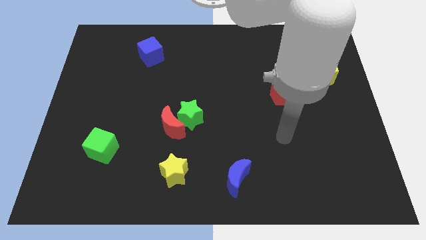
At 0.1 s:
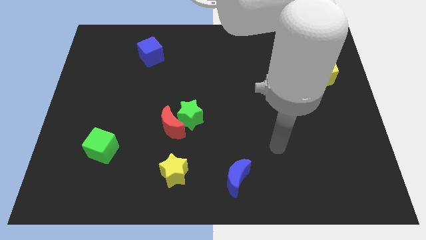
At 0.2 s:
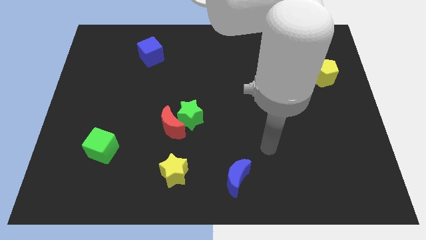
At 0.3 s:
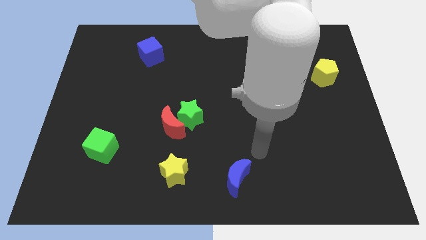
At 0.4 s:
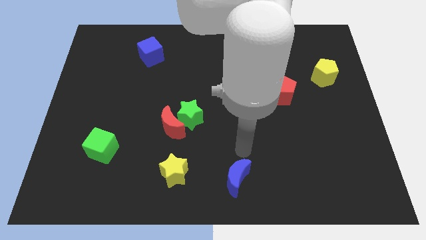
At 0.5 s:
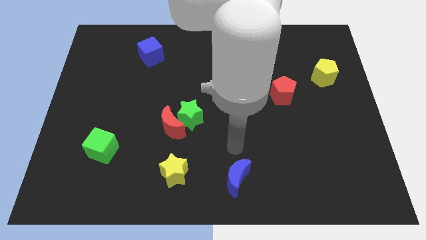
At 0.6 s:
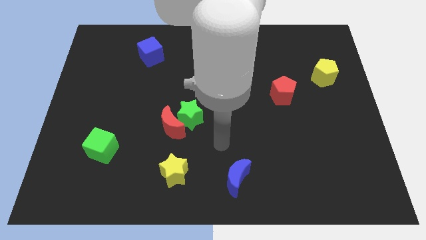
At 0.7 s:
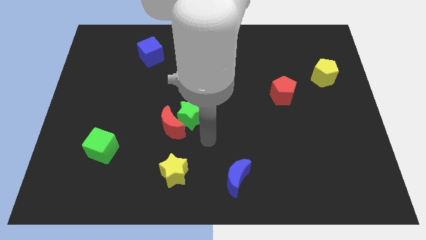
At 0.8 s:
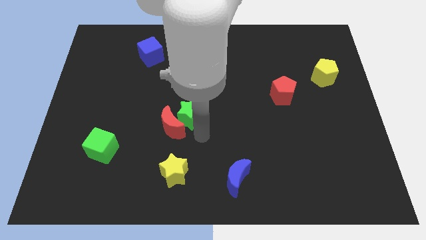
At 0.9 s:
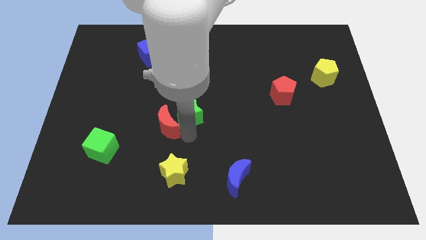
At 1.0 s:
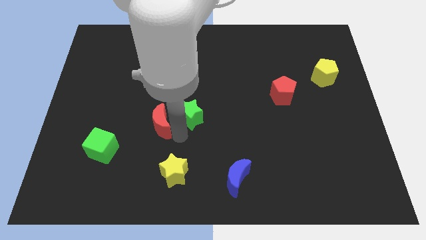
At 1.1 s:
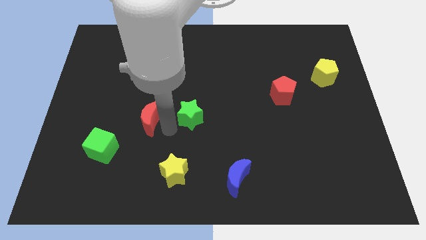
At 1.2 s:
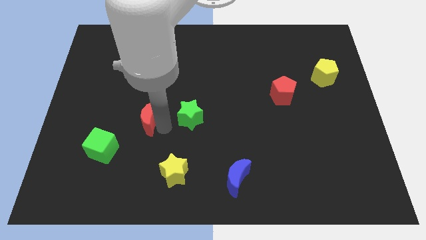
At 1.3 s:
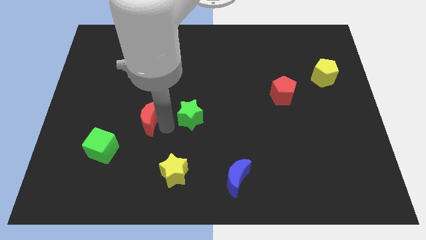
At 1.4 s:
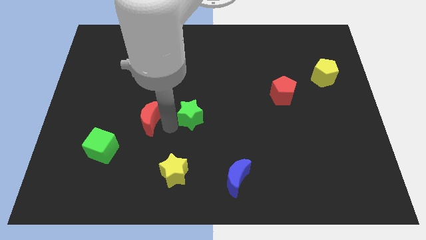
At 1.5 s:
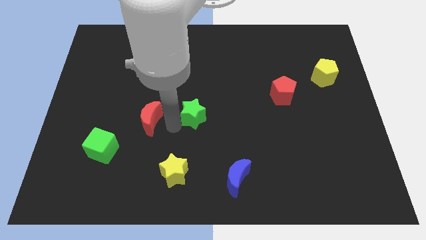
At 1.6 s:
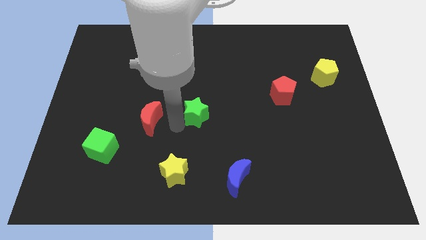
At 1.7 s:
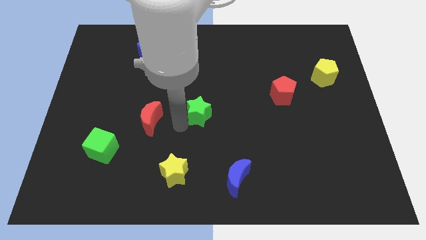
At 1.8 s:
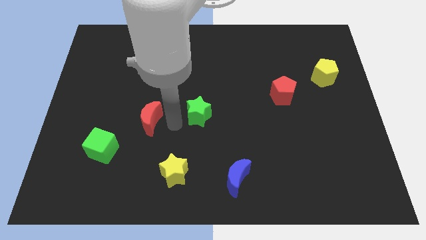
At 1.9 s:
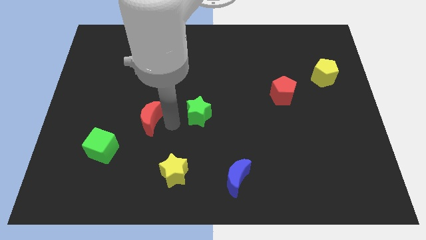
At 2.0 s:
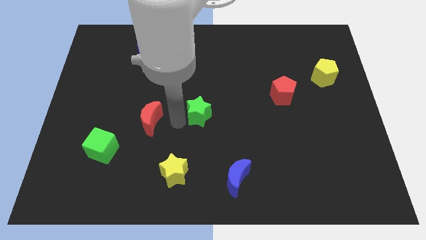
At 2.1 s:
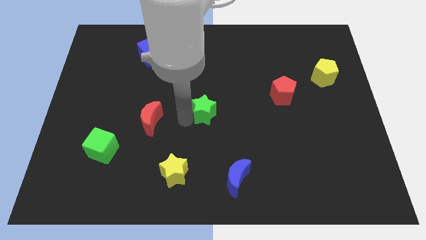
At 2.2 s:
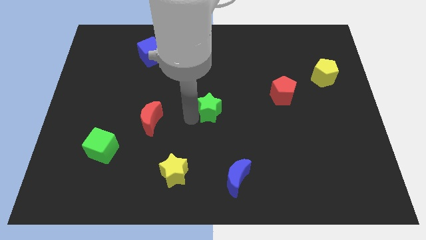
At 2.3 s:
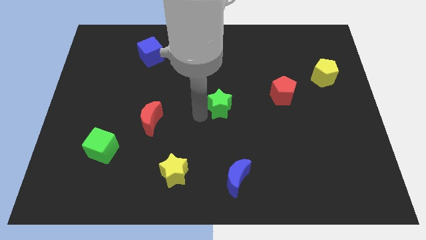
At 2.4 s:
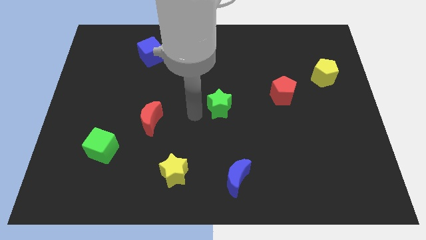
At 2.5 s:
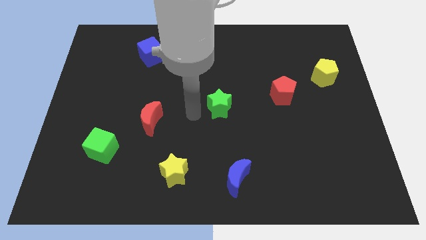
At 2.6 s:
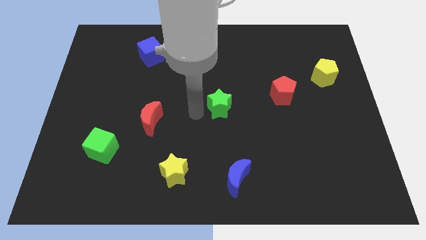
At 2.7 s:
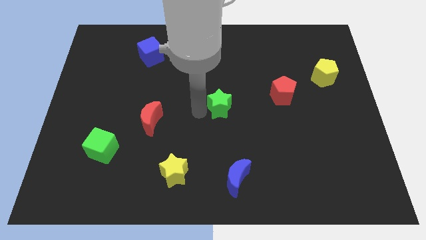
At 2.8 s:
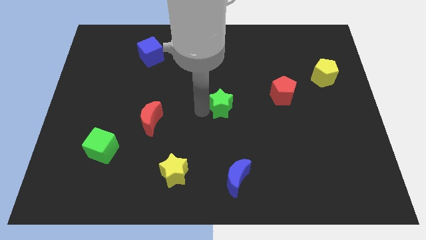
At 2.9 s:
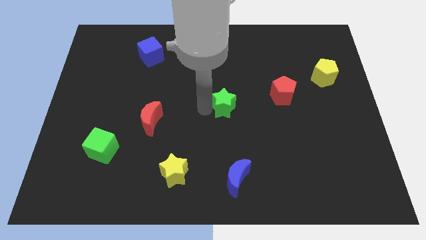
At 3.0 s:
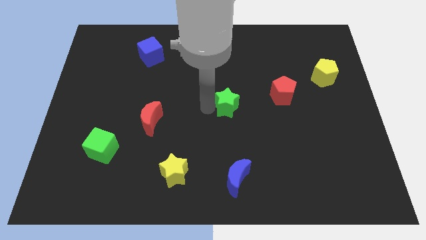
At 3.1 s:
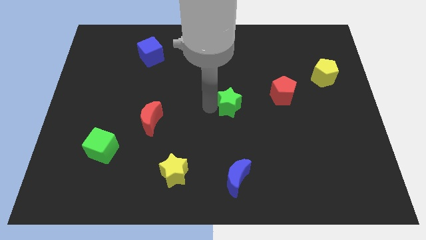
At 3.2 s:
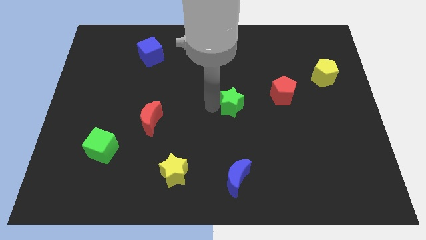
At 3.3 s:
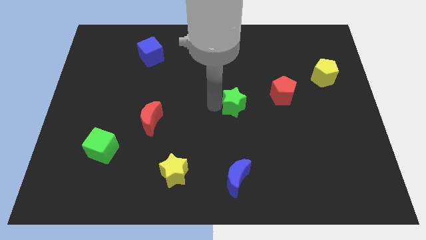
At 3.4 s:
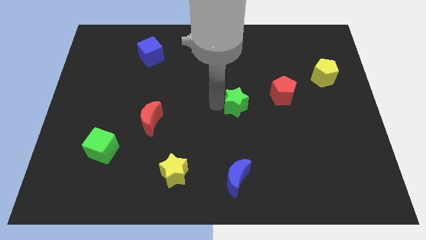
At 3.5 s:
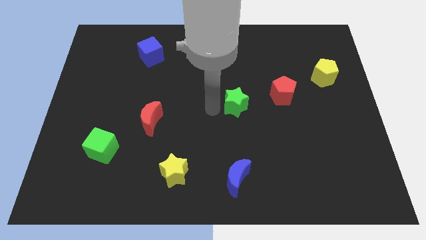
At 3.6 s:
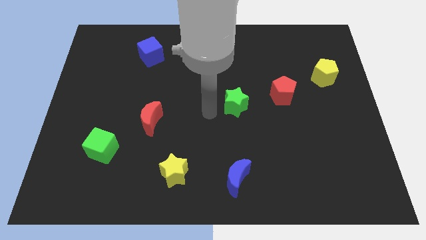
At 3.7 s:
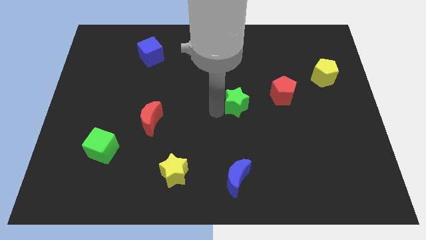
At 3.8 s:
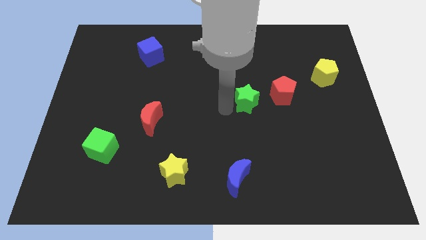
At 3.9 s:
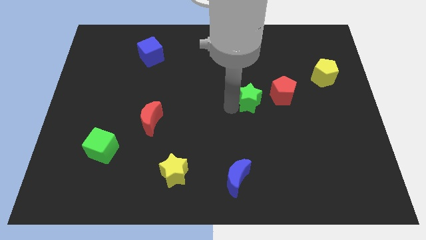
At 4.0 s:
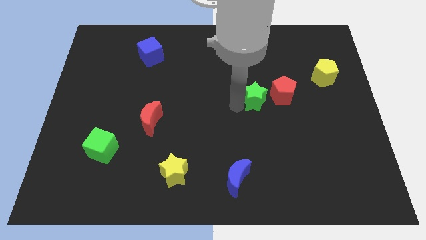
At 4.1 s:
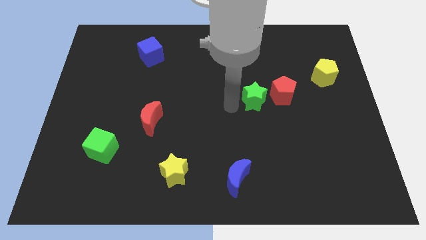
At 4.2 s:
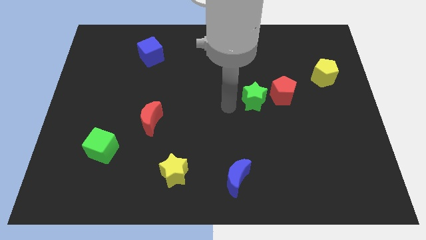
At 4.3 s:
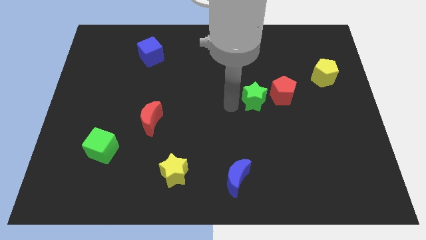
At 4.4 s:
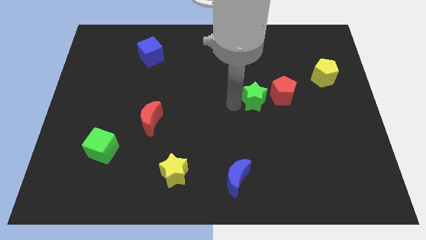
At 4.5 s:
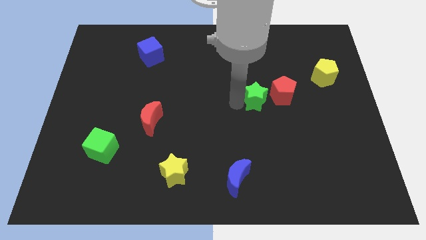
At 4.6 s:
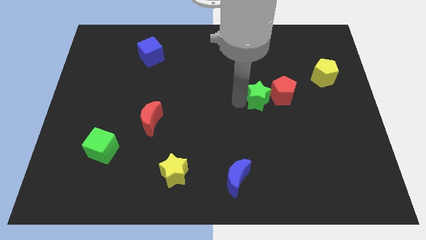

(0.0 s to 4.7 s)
slide the green star next to the red pentagon

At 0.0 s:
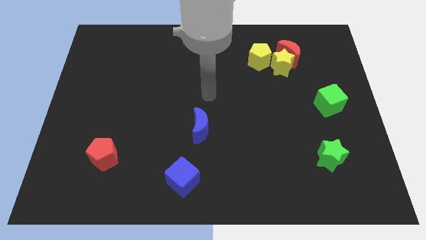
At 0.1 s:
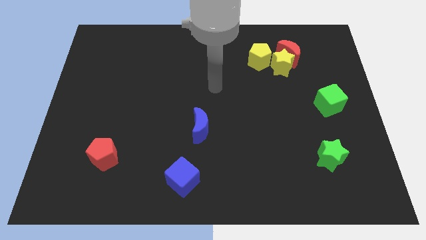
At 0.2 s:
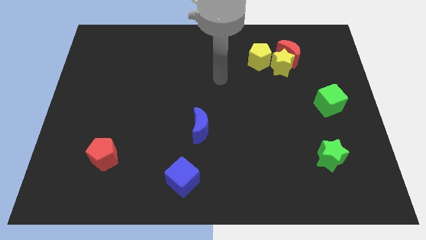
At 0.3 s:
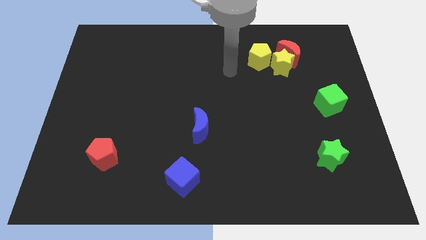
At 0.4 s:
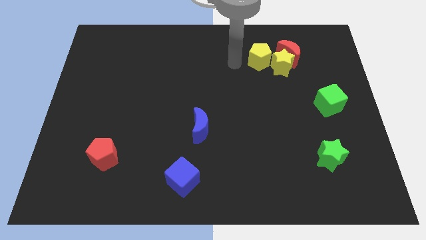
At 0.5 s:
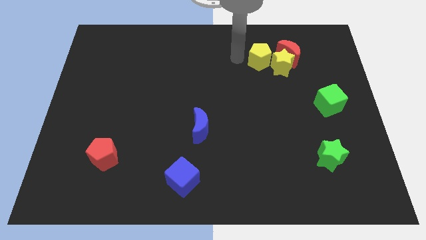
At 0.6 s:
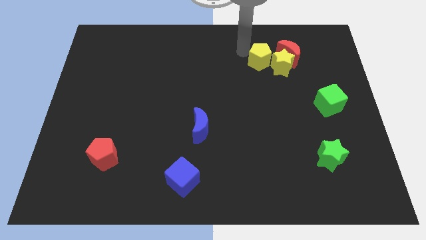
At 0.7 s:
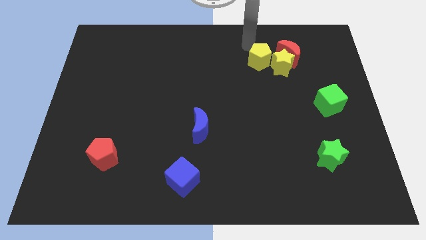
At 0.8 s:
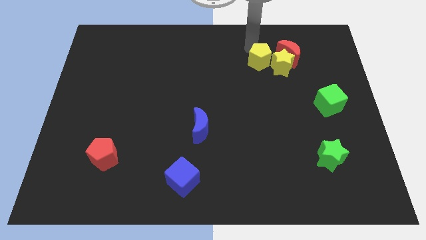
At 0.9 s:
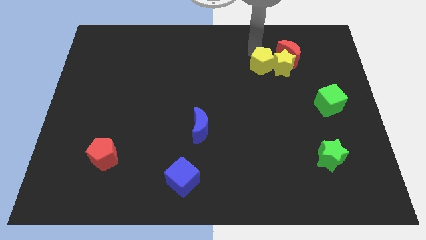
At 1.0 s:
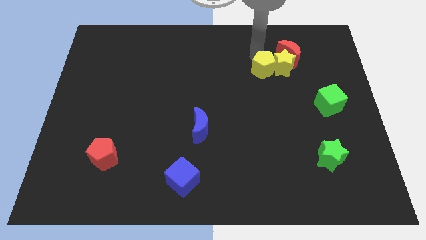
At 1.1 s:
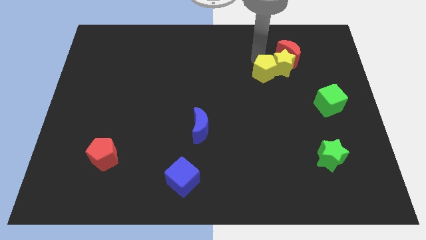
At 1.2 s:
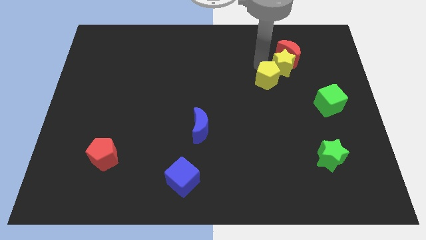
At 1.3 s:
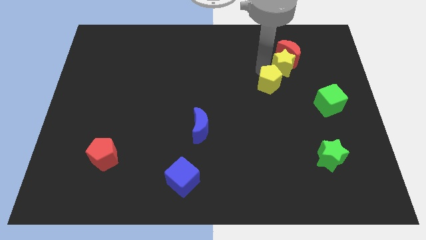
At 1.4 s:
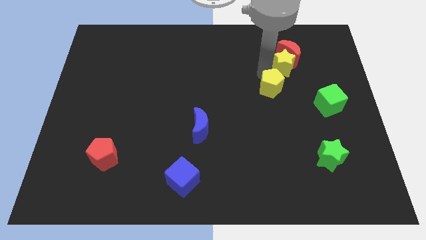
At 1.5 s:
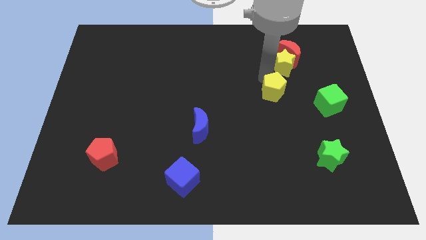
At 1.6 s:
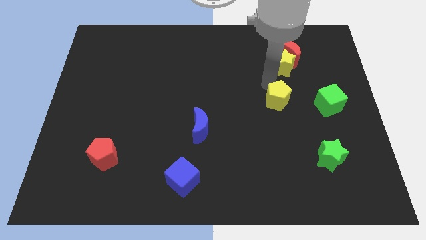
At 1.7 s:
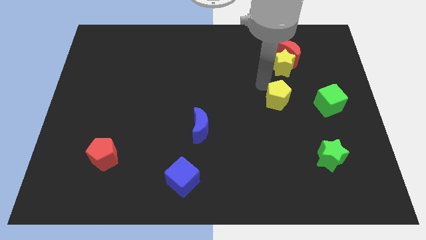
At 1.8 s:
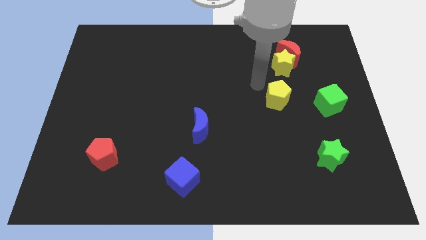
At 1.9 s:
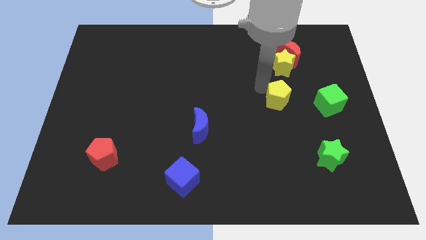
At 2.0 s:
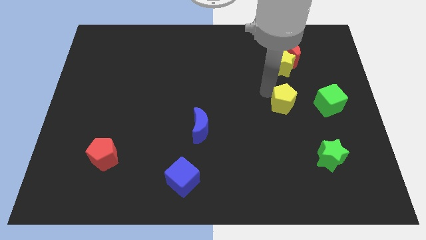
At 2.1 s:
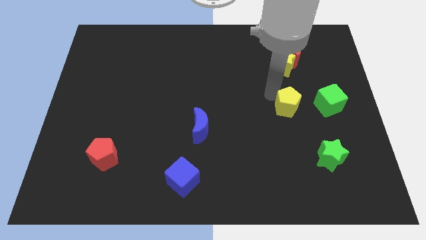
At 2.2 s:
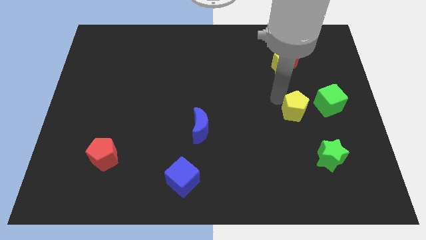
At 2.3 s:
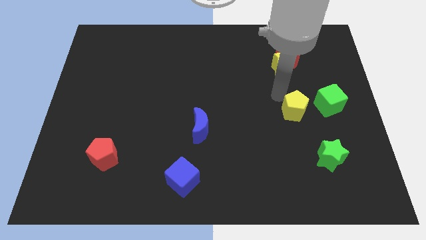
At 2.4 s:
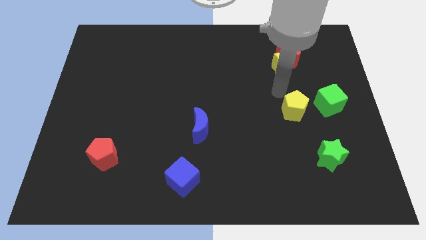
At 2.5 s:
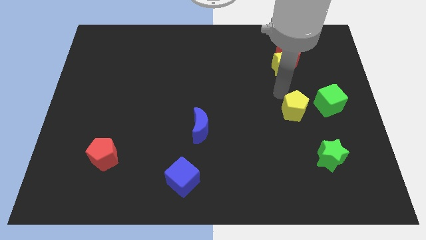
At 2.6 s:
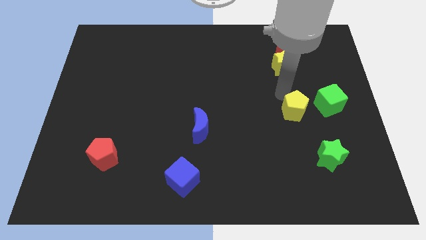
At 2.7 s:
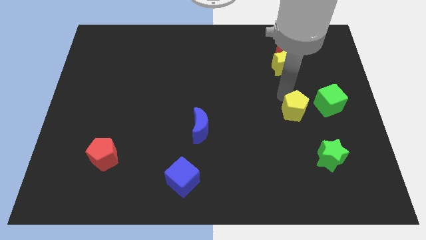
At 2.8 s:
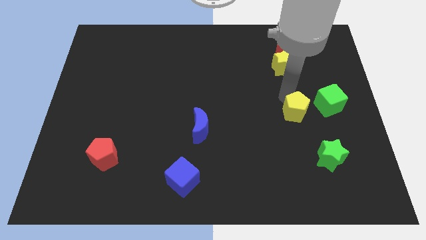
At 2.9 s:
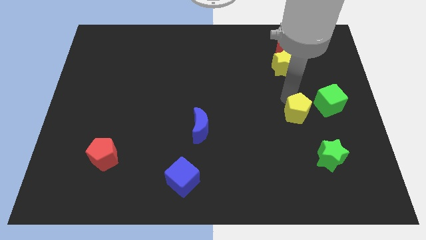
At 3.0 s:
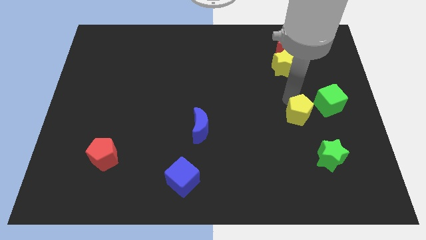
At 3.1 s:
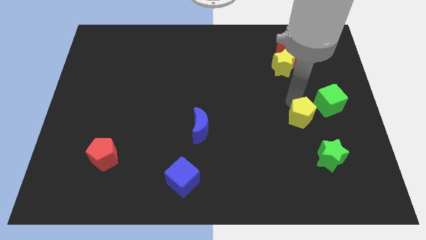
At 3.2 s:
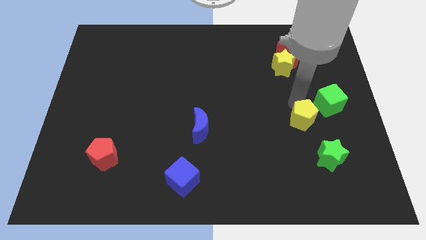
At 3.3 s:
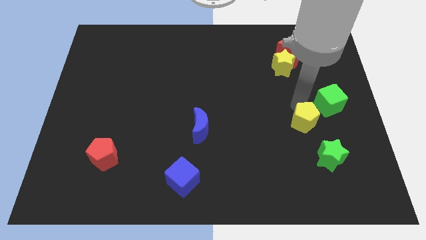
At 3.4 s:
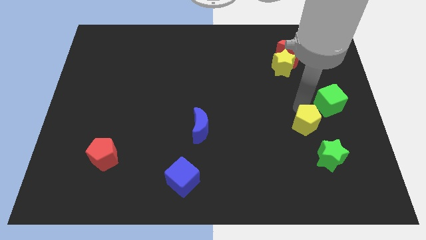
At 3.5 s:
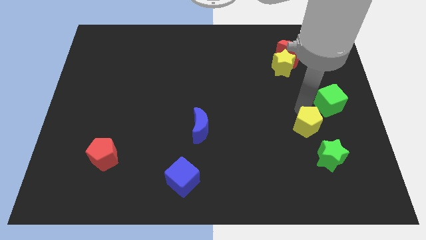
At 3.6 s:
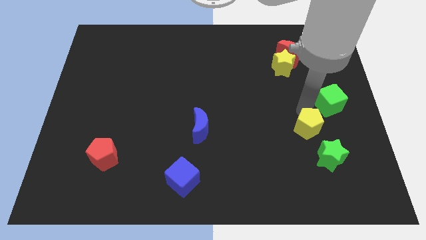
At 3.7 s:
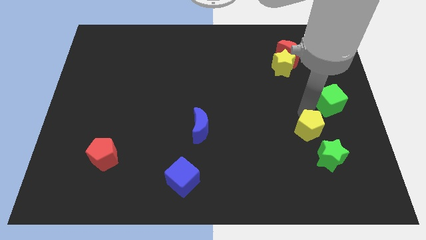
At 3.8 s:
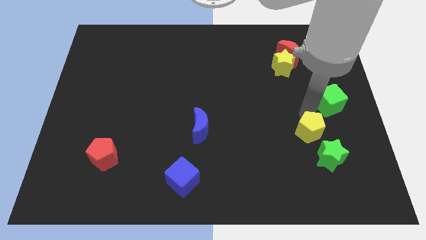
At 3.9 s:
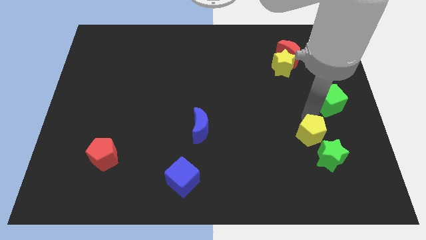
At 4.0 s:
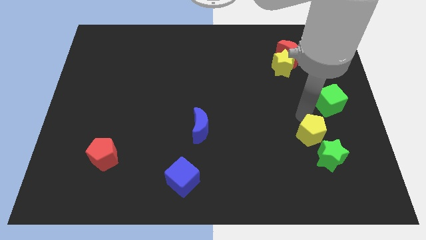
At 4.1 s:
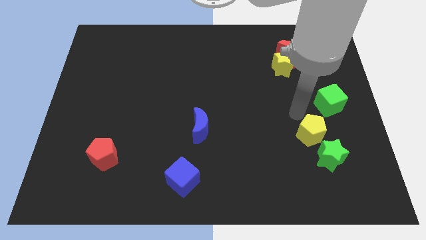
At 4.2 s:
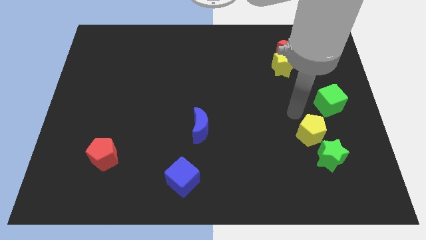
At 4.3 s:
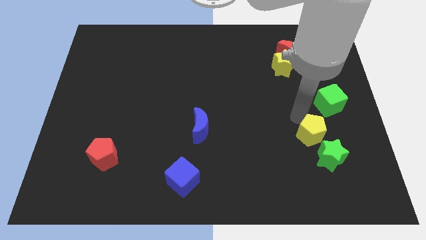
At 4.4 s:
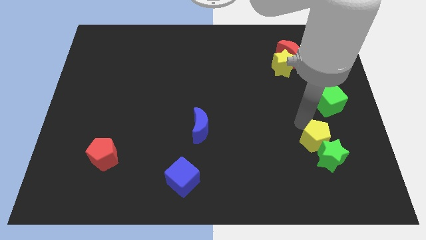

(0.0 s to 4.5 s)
push the yellow pentagon next to the green star
